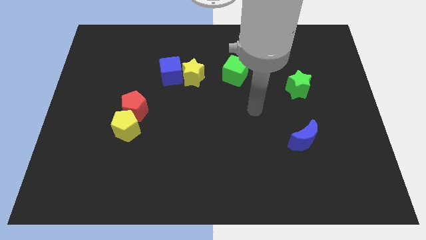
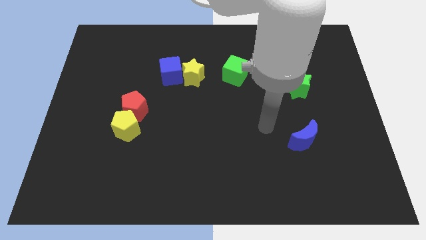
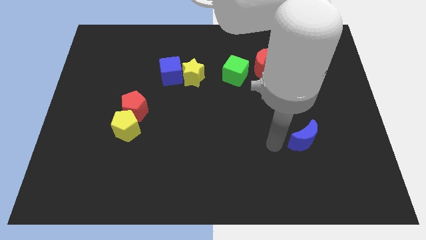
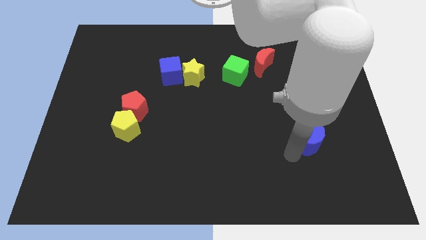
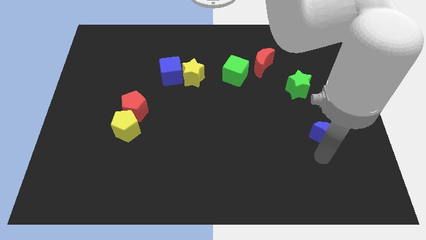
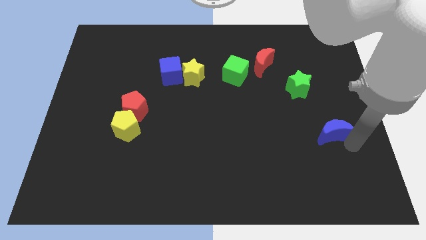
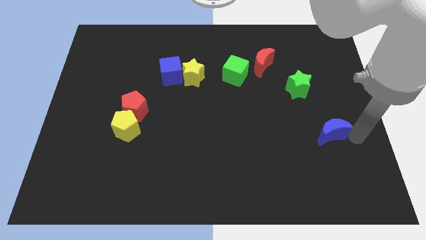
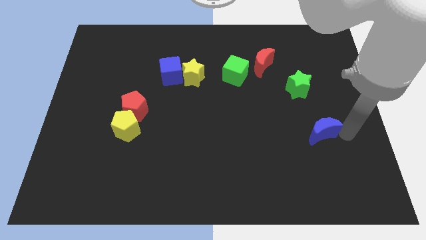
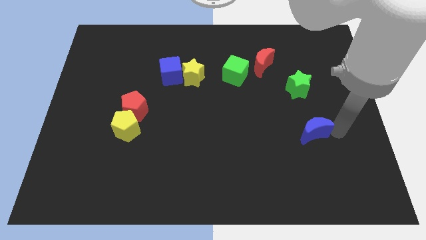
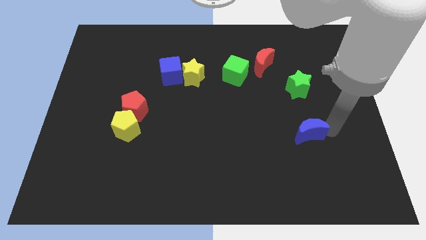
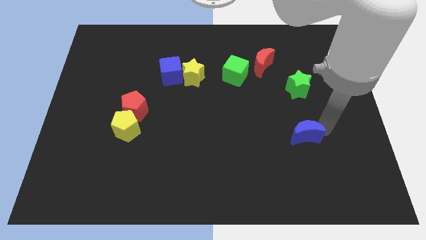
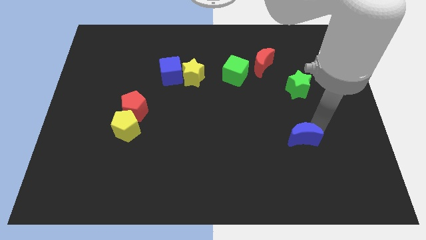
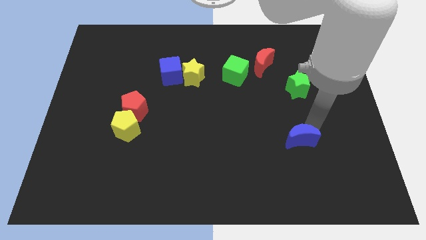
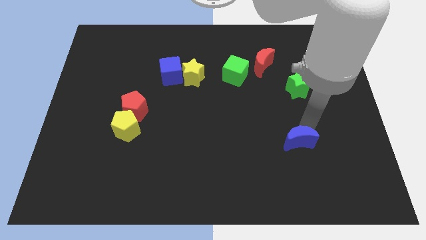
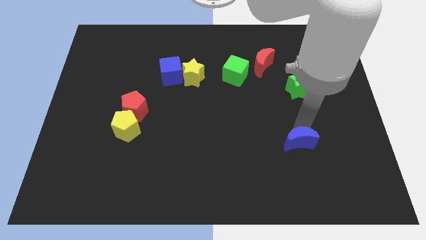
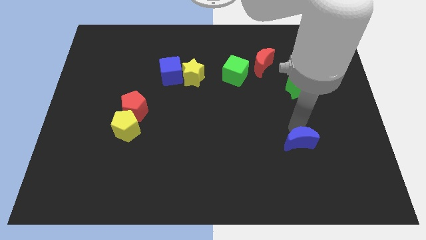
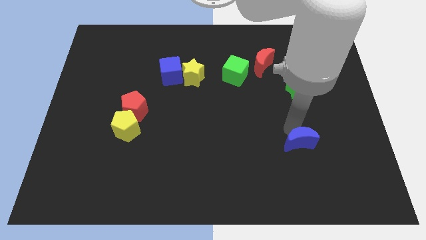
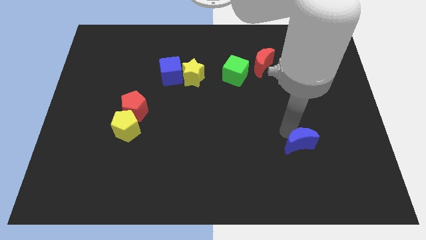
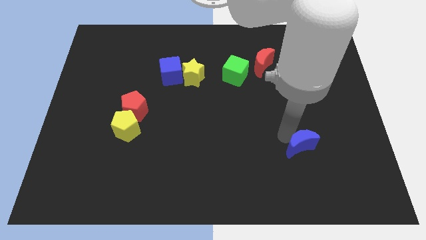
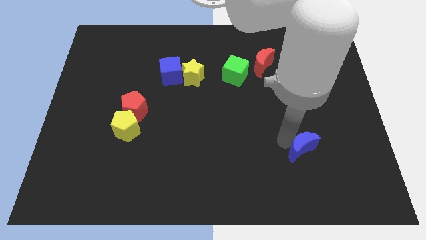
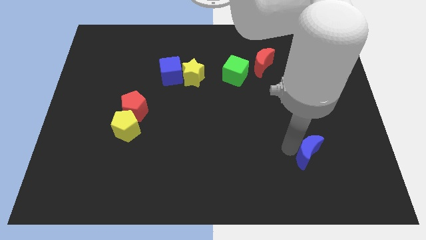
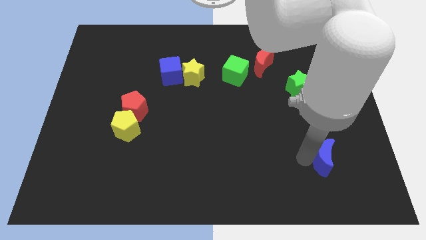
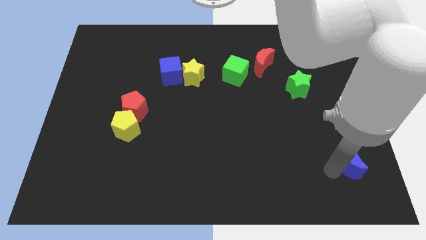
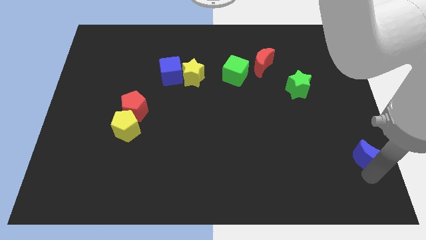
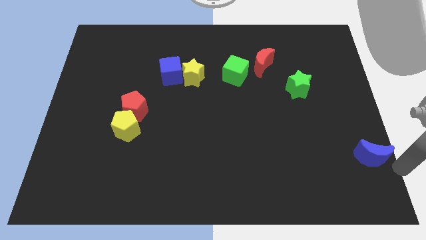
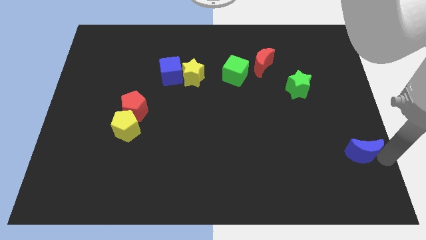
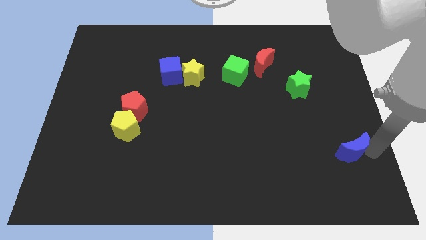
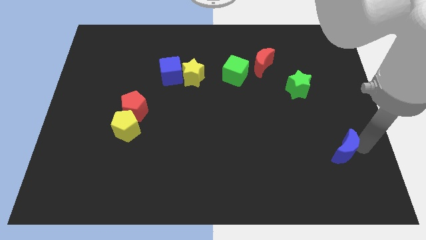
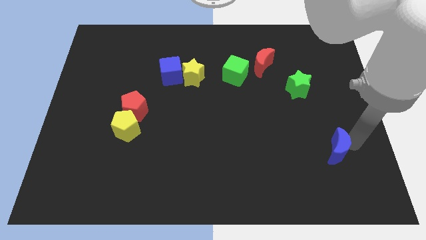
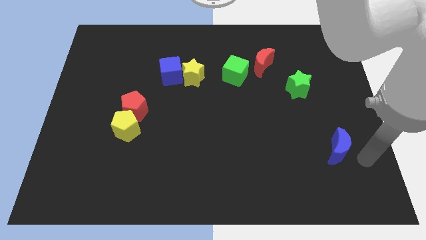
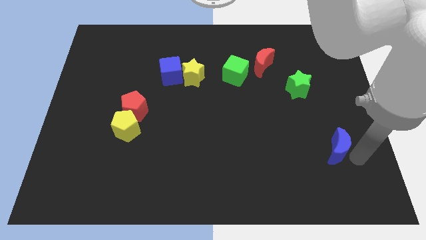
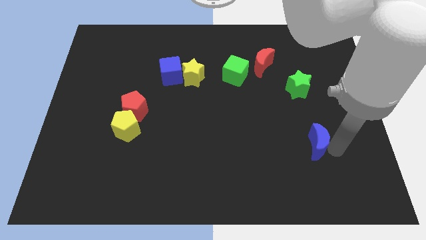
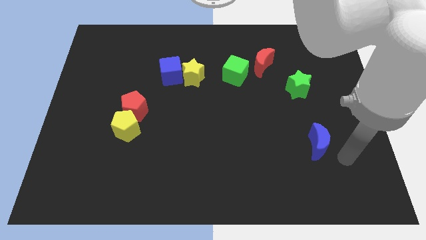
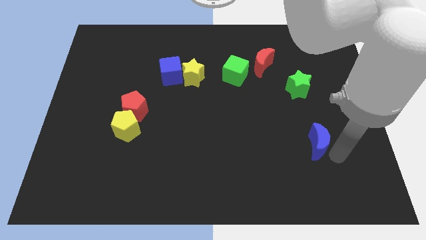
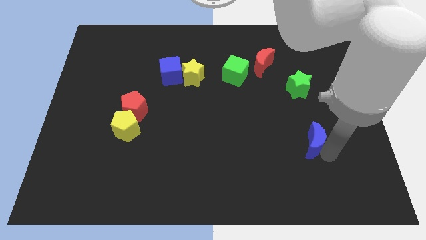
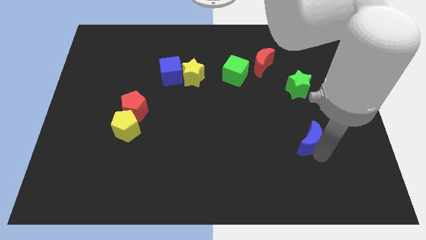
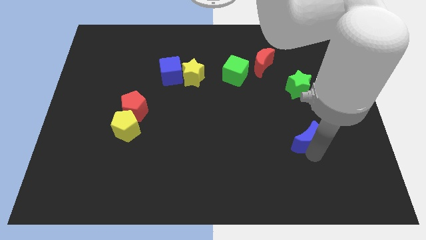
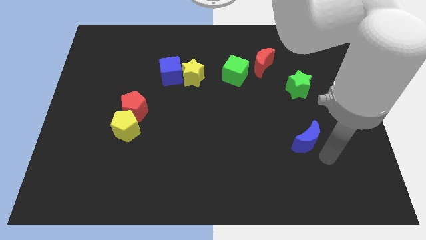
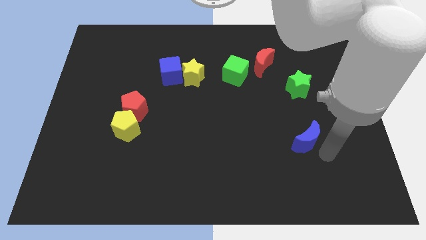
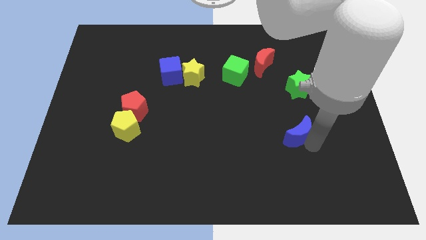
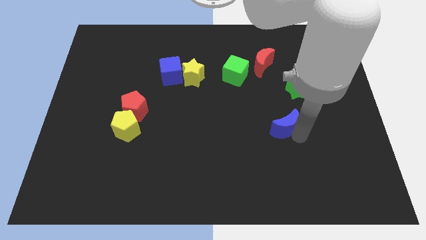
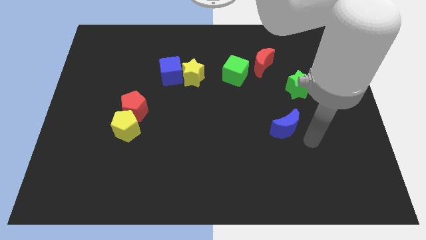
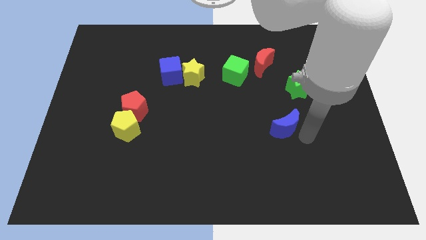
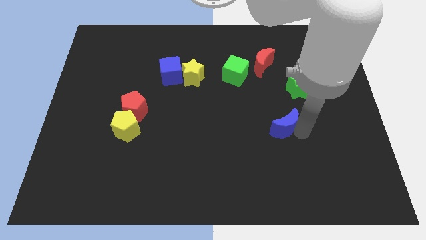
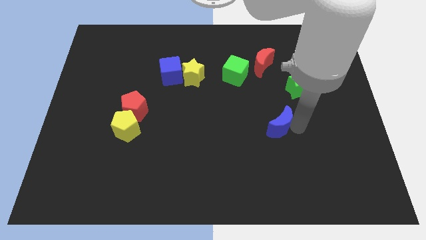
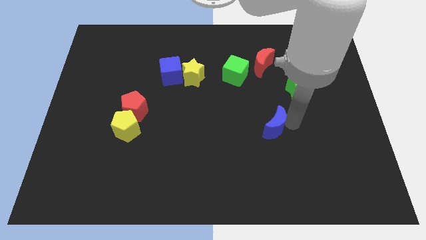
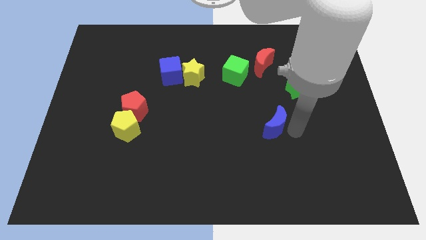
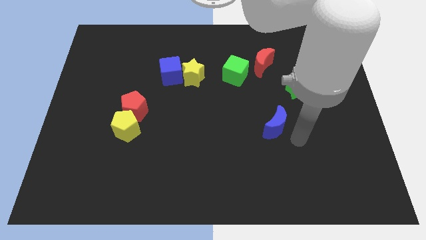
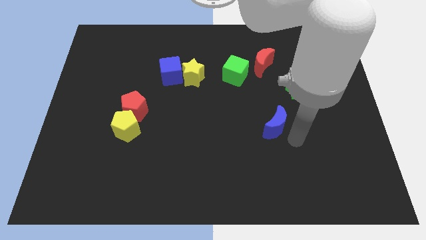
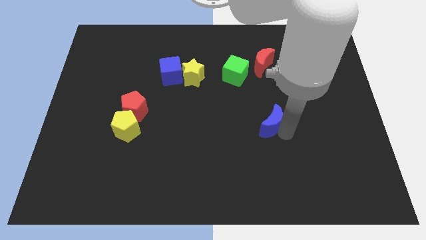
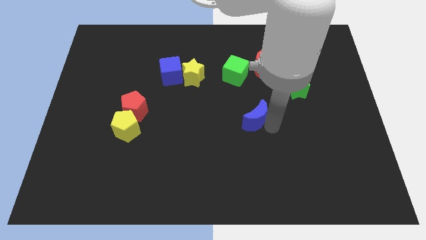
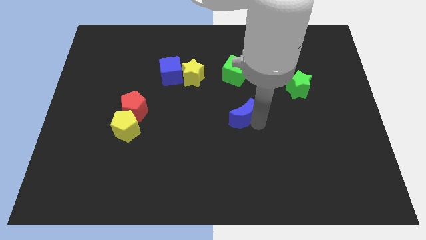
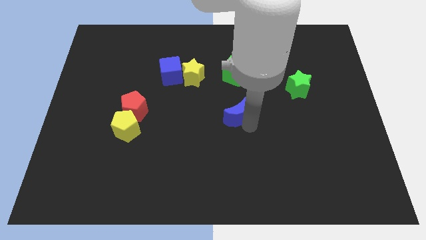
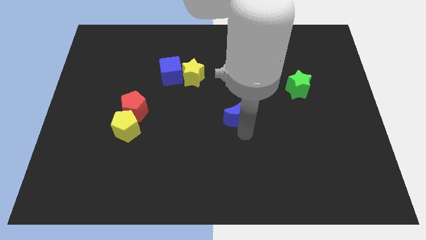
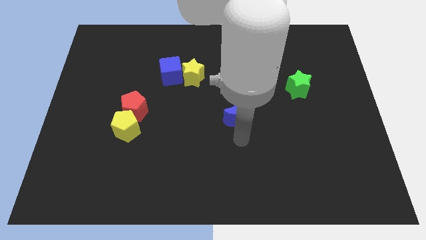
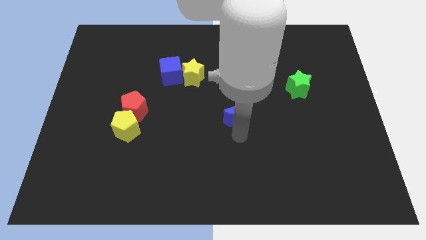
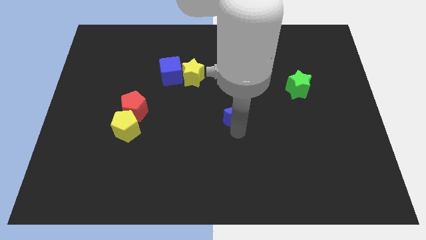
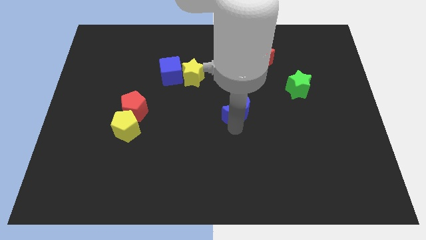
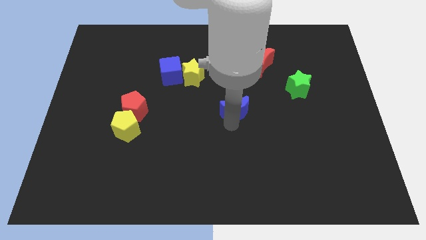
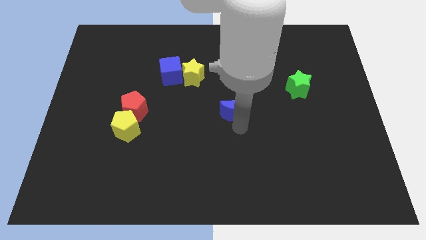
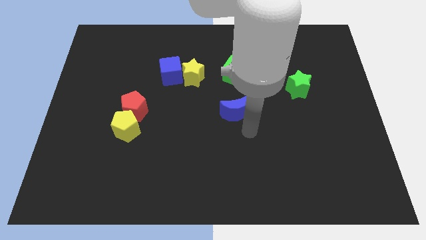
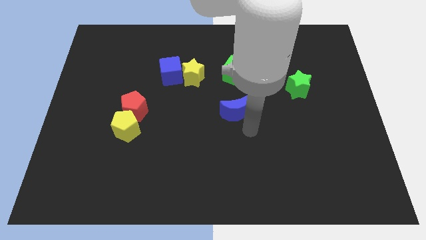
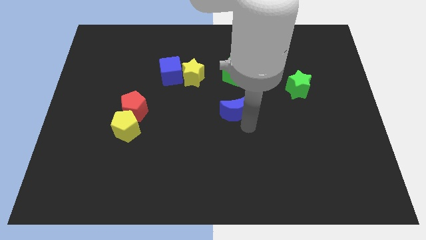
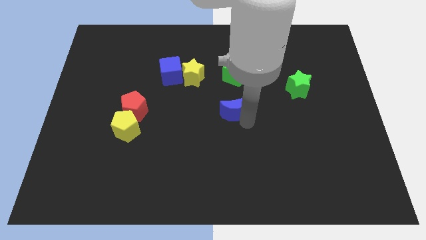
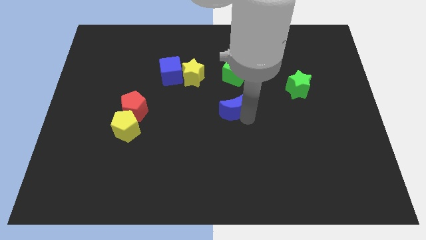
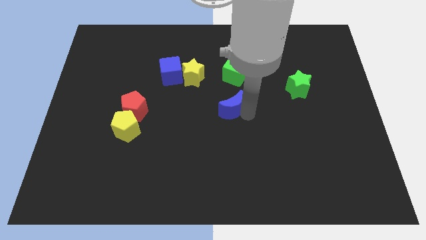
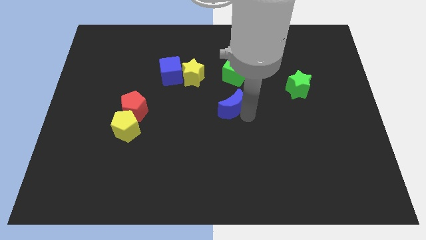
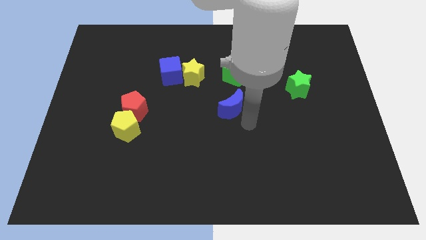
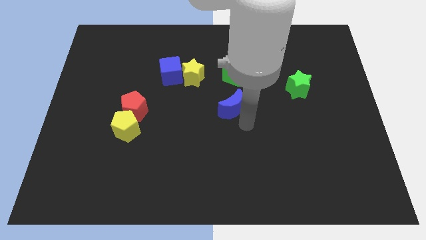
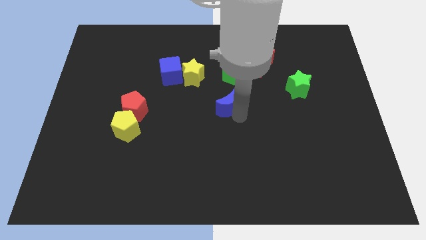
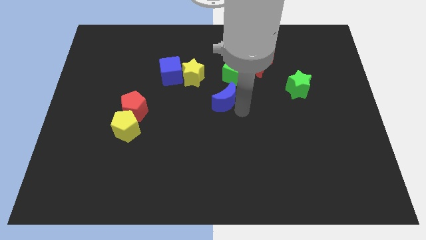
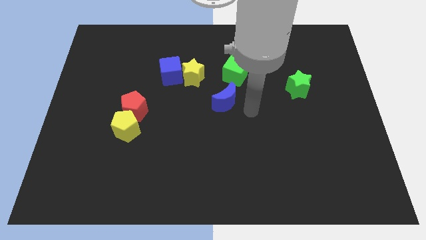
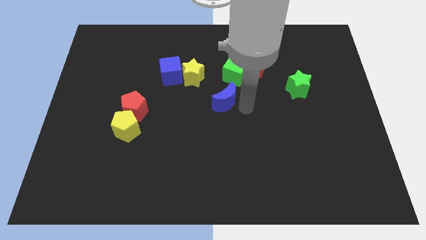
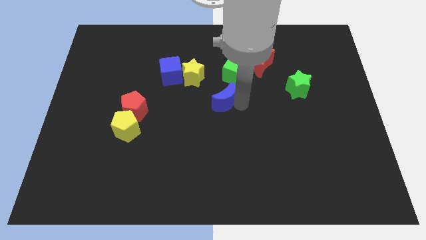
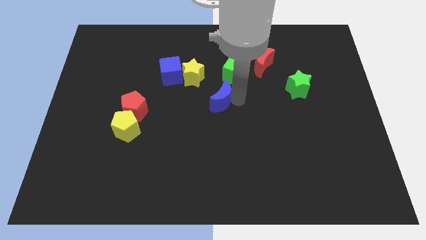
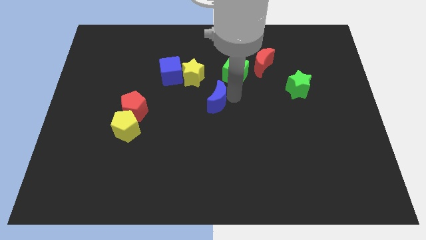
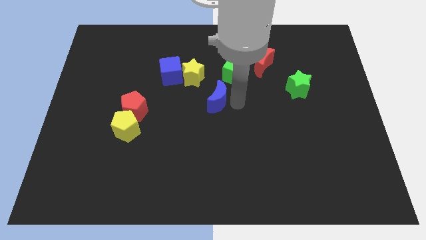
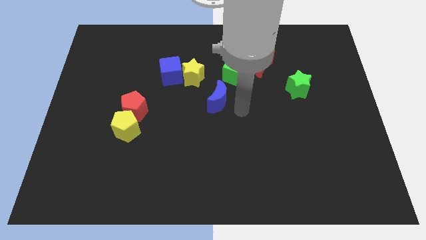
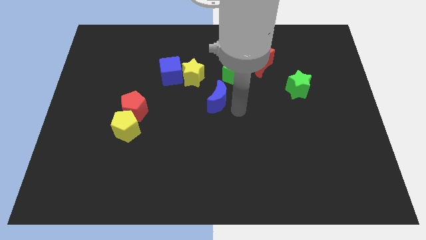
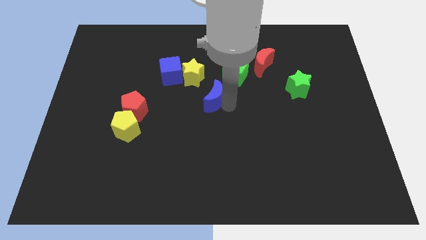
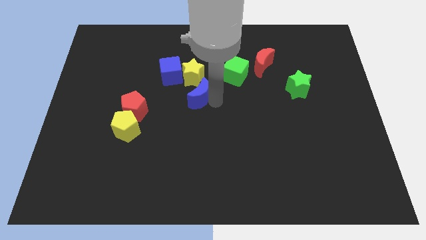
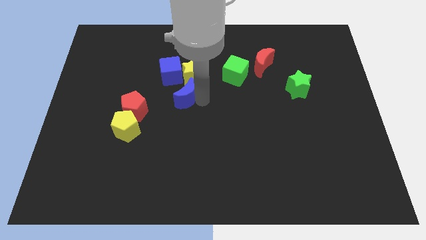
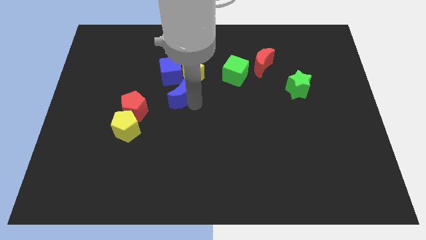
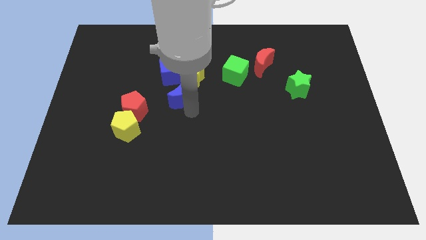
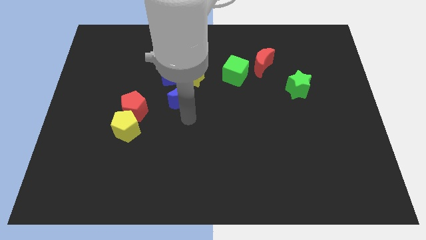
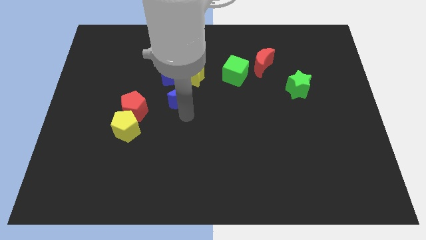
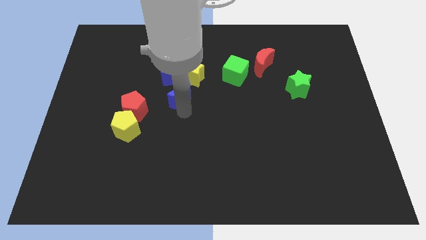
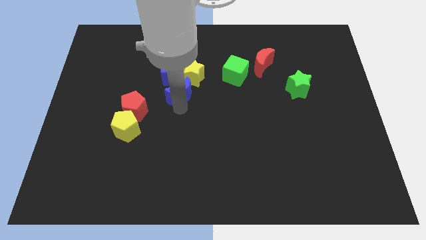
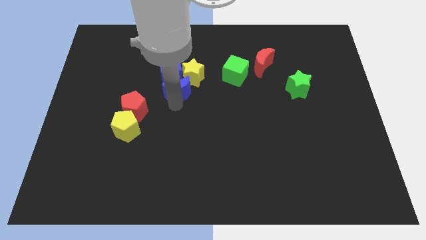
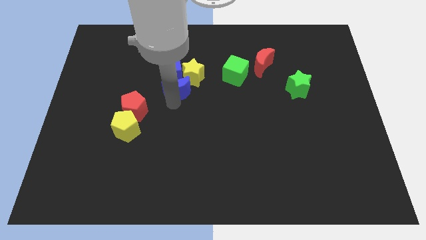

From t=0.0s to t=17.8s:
slide the blue moon next to the blue cube
